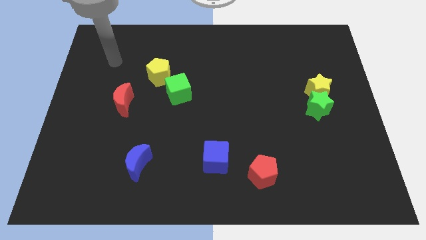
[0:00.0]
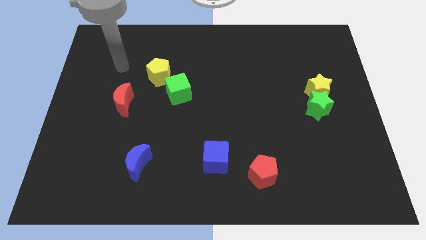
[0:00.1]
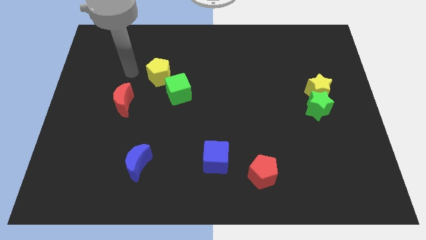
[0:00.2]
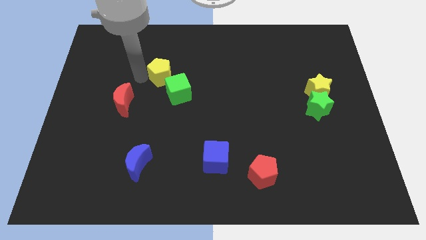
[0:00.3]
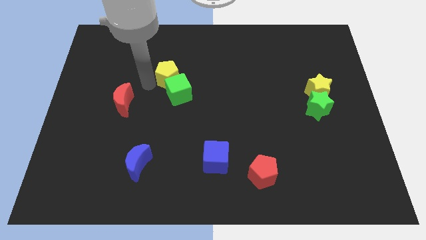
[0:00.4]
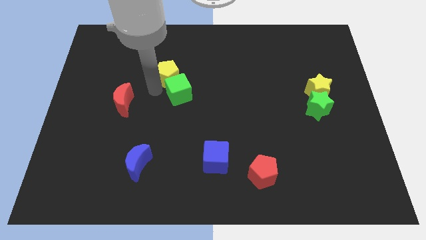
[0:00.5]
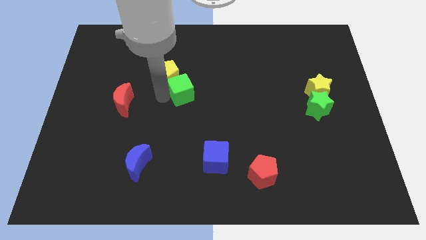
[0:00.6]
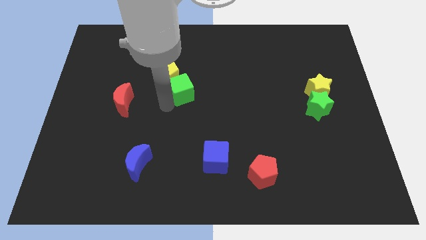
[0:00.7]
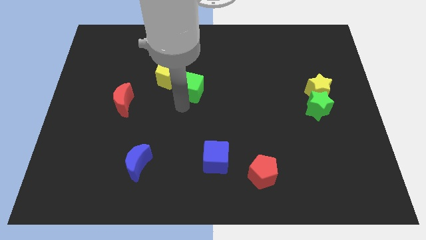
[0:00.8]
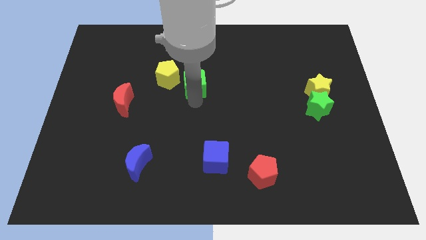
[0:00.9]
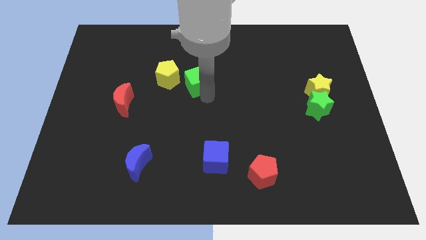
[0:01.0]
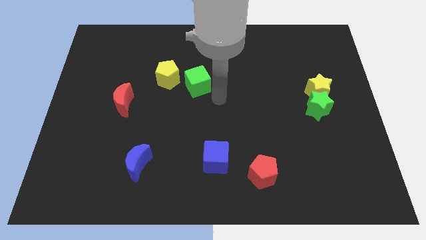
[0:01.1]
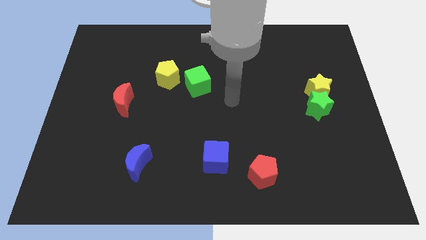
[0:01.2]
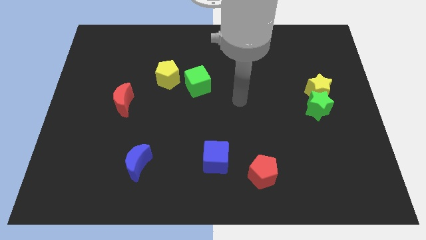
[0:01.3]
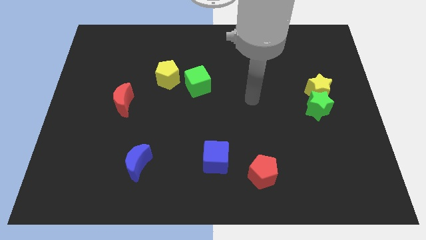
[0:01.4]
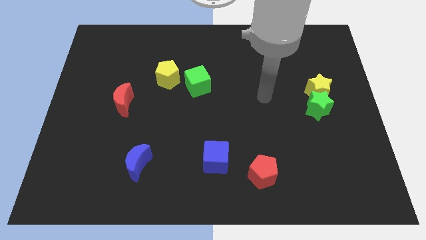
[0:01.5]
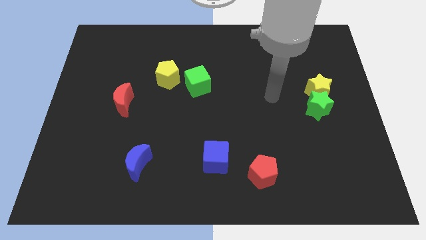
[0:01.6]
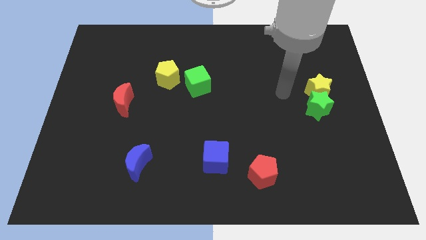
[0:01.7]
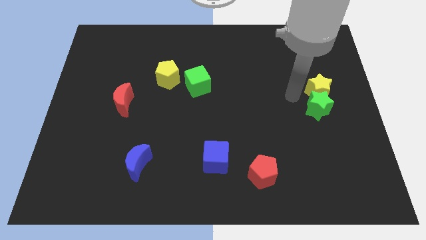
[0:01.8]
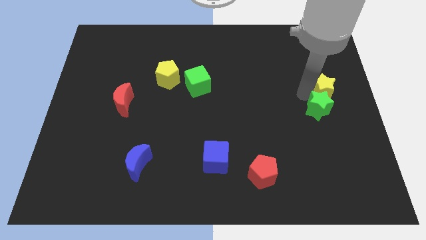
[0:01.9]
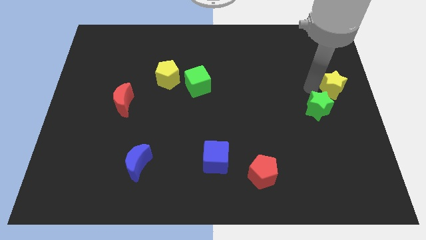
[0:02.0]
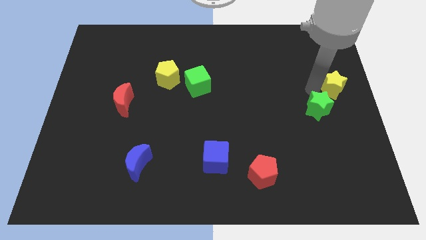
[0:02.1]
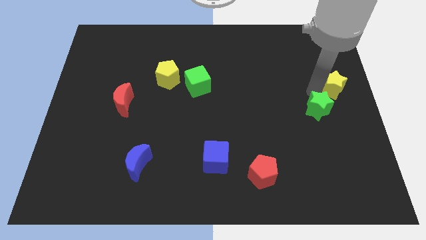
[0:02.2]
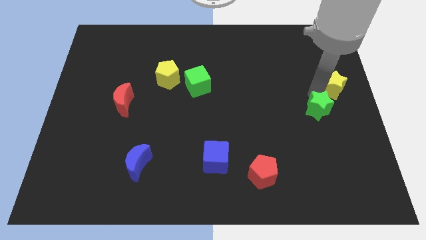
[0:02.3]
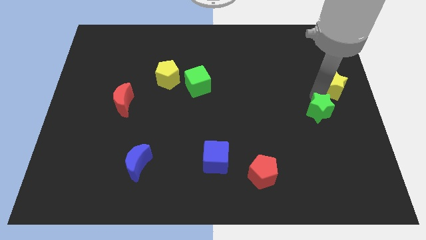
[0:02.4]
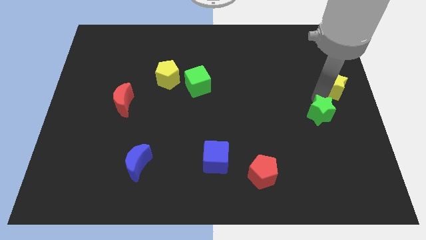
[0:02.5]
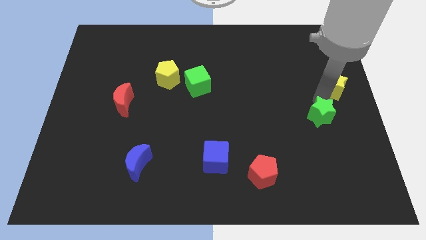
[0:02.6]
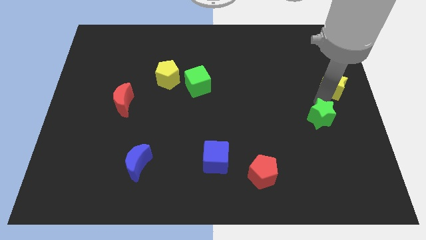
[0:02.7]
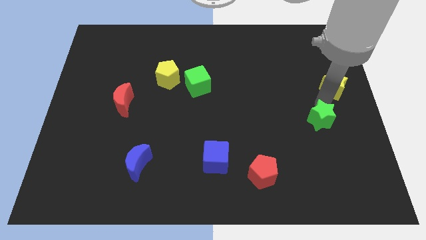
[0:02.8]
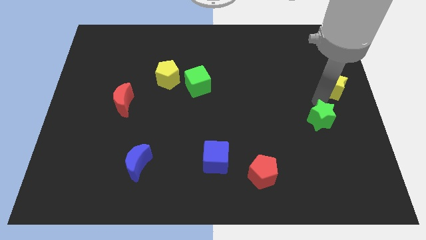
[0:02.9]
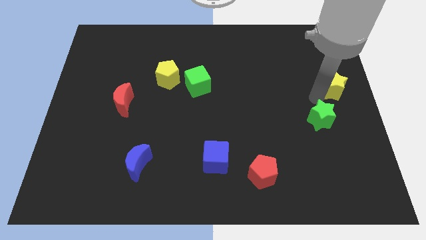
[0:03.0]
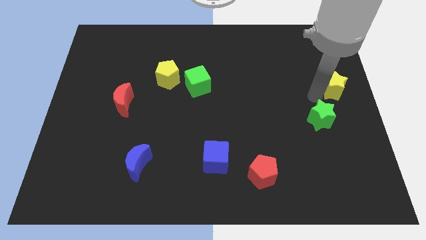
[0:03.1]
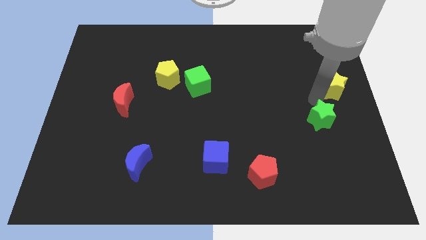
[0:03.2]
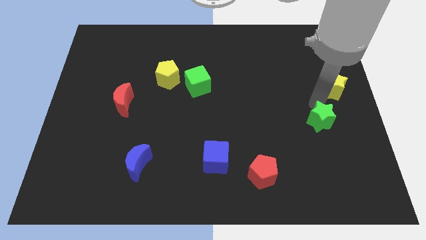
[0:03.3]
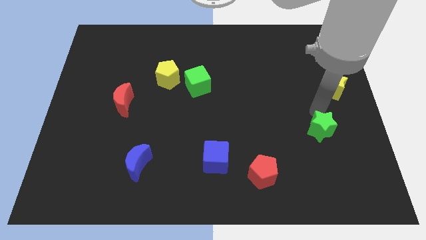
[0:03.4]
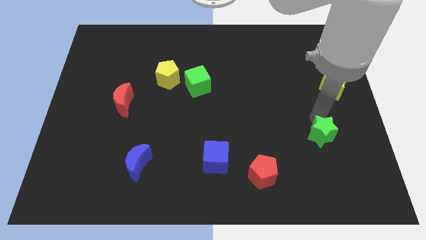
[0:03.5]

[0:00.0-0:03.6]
push the green star down a little

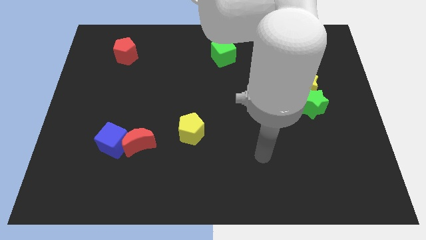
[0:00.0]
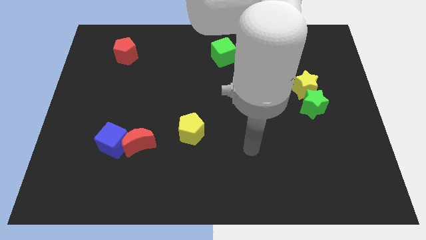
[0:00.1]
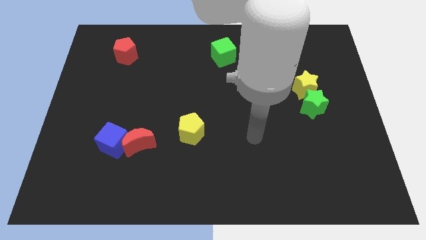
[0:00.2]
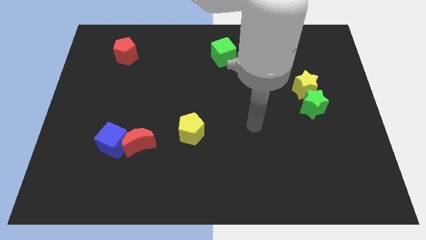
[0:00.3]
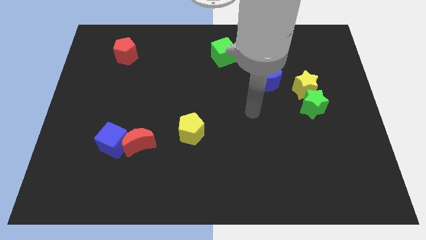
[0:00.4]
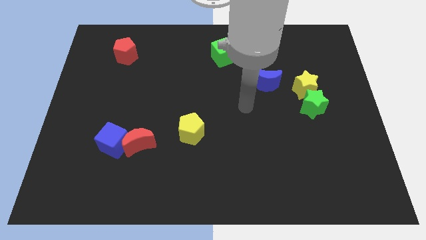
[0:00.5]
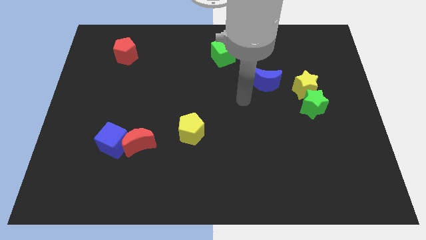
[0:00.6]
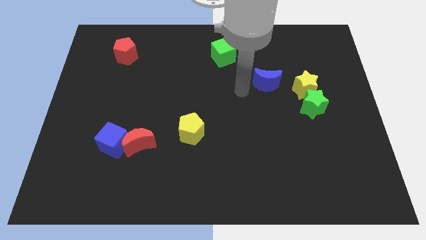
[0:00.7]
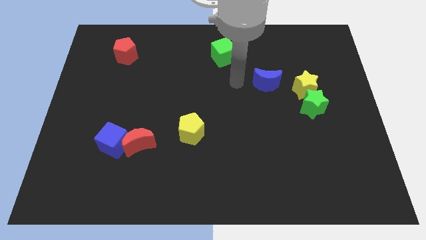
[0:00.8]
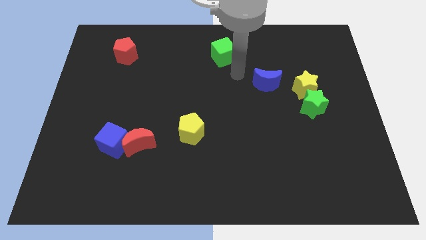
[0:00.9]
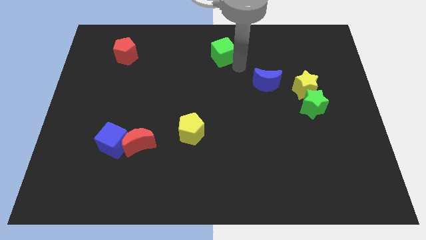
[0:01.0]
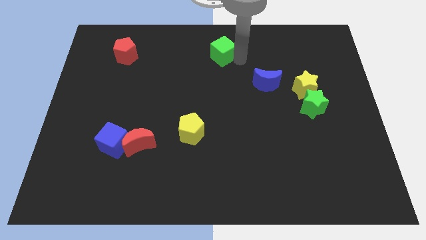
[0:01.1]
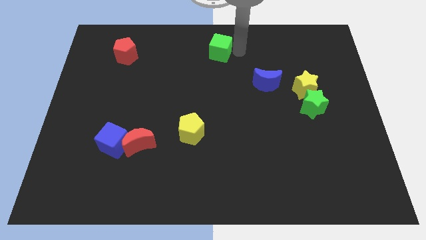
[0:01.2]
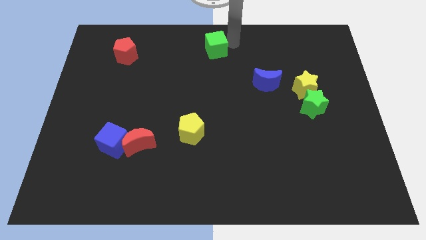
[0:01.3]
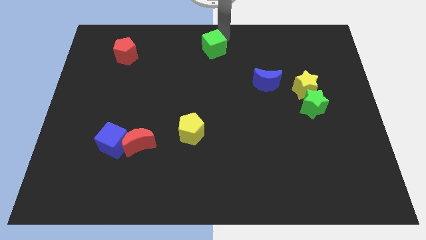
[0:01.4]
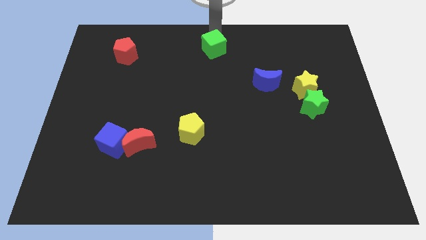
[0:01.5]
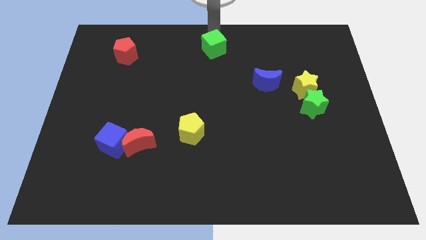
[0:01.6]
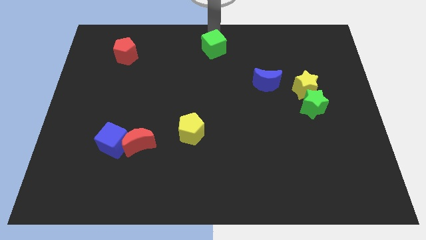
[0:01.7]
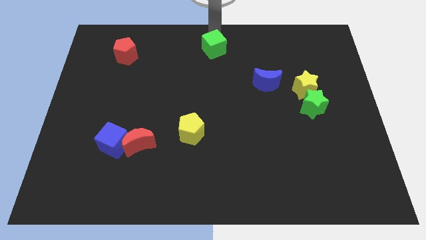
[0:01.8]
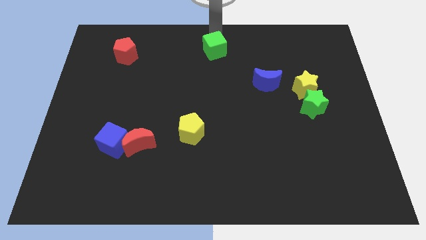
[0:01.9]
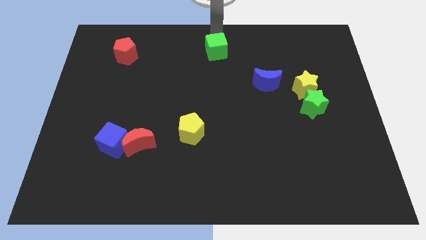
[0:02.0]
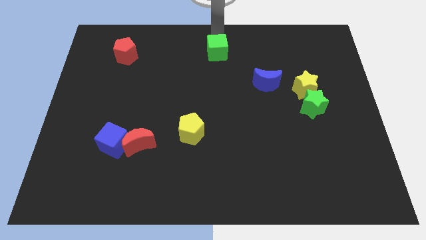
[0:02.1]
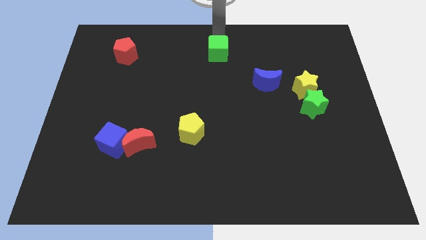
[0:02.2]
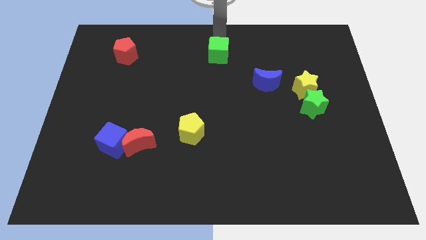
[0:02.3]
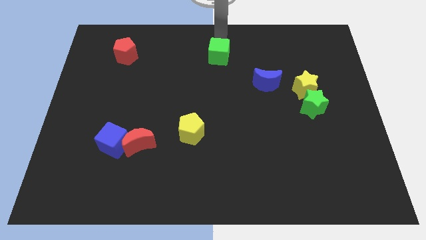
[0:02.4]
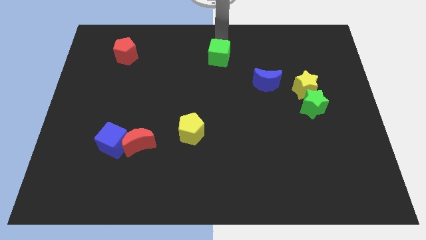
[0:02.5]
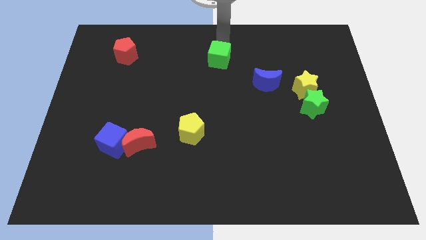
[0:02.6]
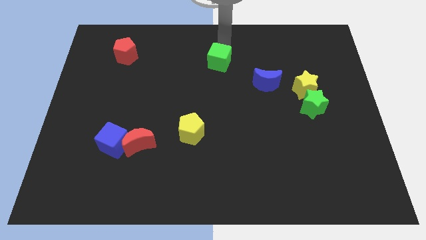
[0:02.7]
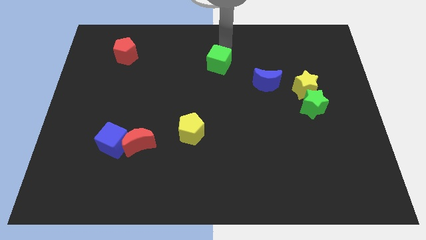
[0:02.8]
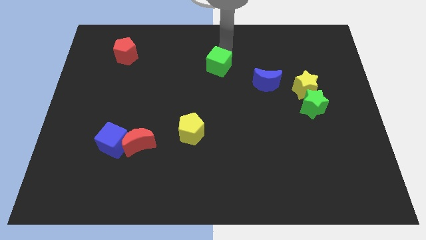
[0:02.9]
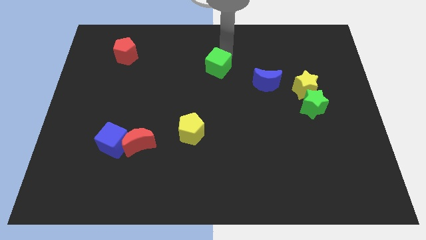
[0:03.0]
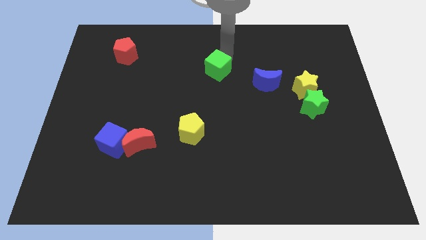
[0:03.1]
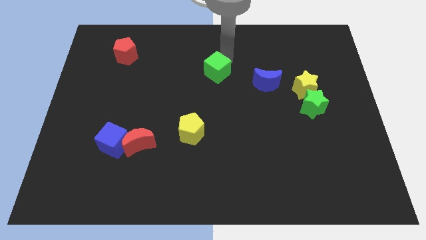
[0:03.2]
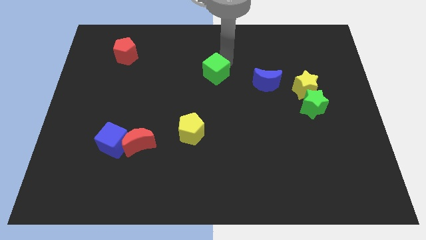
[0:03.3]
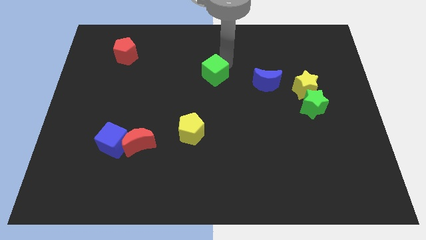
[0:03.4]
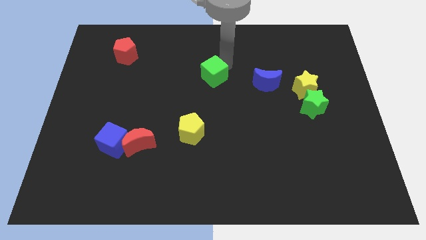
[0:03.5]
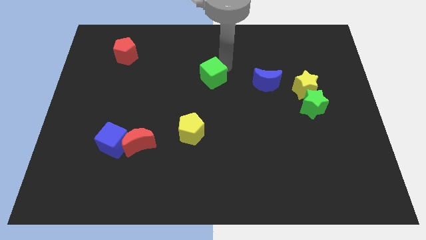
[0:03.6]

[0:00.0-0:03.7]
slide the green cube downwards and left somewhat

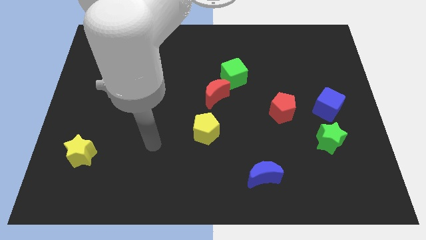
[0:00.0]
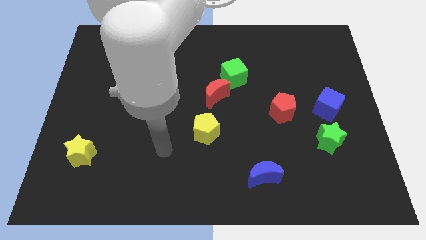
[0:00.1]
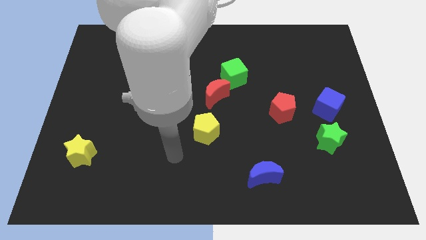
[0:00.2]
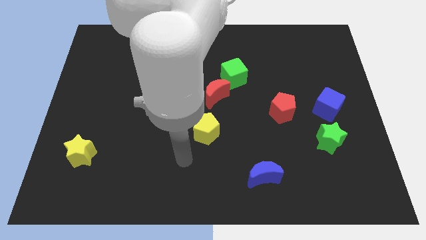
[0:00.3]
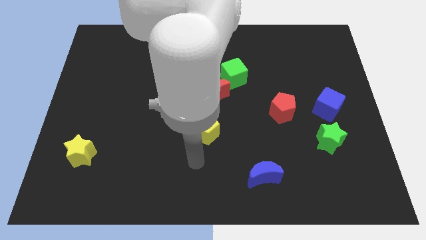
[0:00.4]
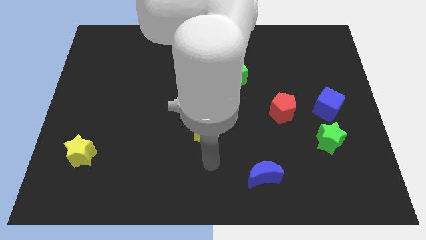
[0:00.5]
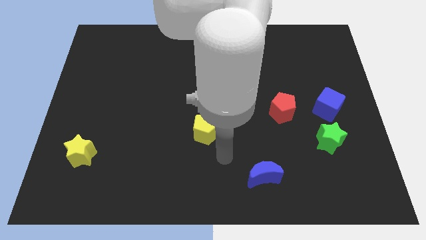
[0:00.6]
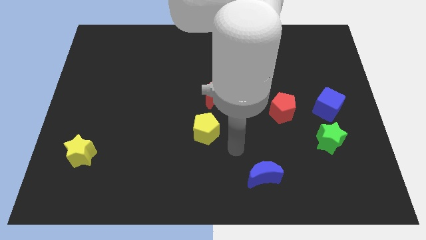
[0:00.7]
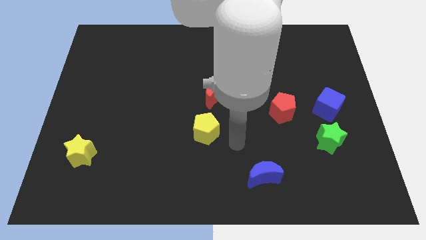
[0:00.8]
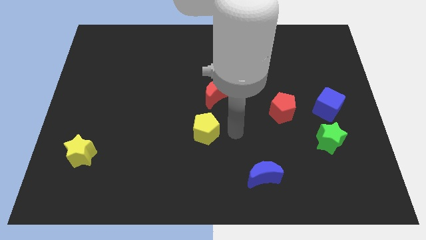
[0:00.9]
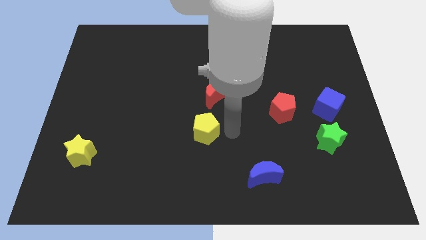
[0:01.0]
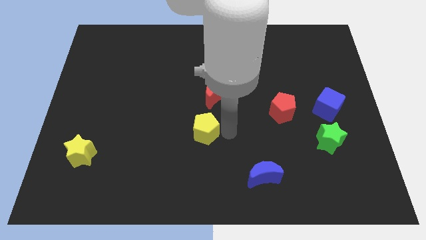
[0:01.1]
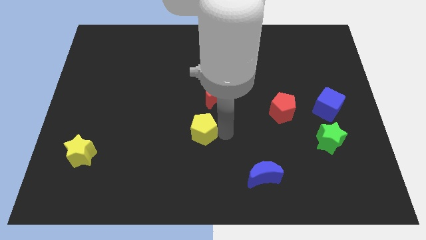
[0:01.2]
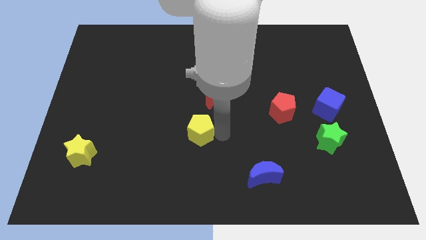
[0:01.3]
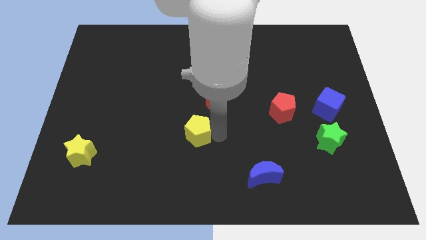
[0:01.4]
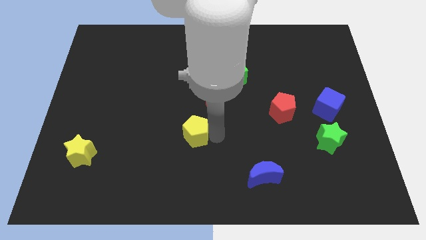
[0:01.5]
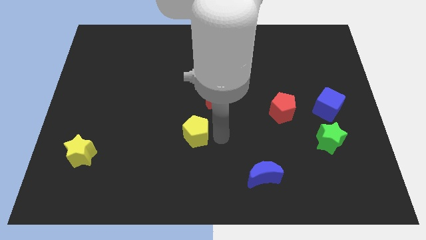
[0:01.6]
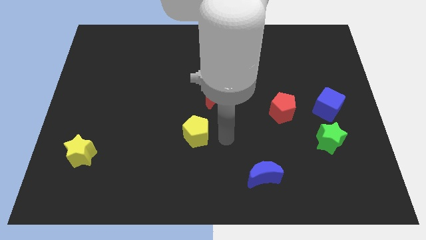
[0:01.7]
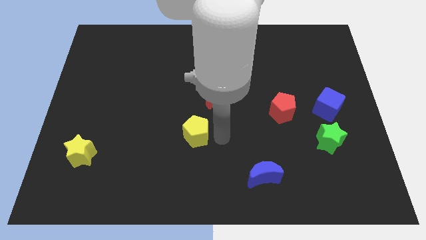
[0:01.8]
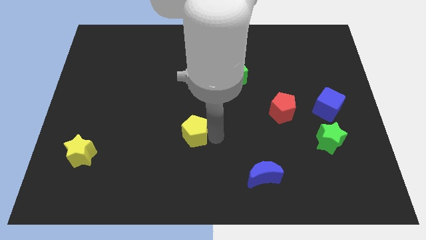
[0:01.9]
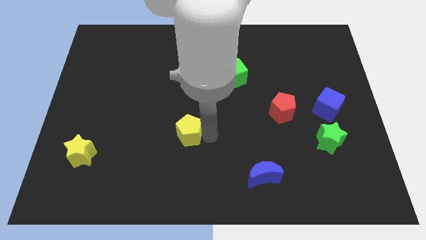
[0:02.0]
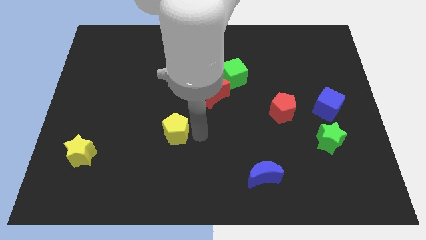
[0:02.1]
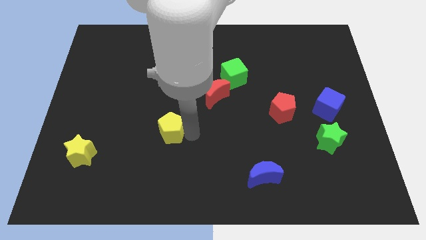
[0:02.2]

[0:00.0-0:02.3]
move the yellow pentagon to the left a bit
